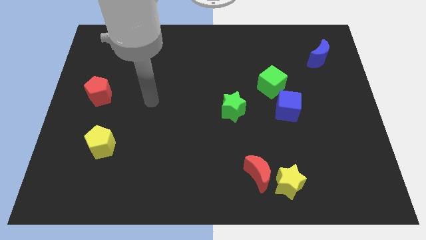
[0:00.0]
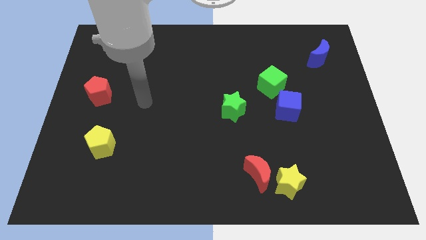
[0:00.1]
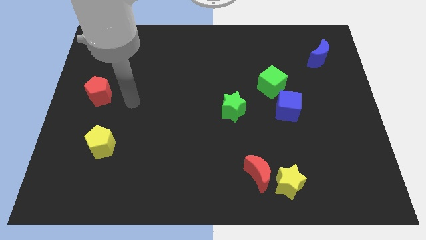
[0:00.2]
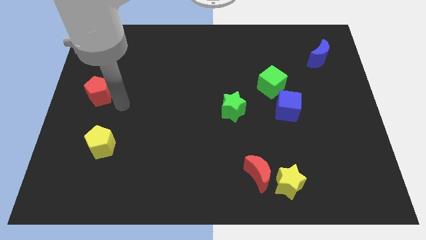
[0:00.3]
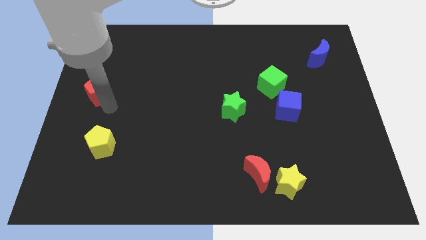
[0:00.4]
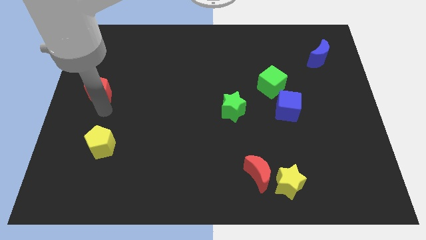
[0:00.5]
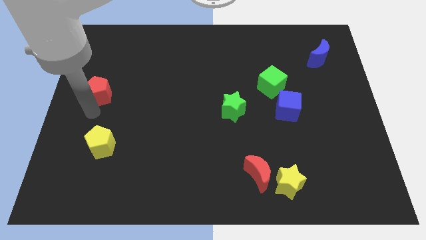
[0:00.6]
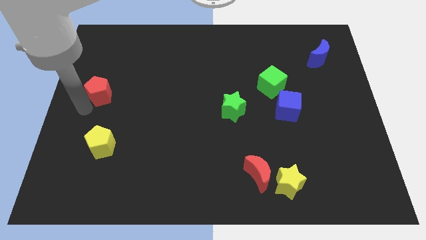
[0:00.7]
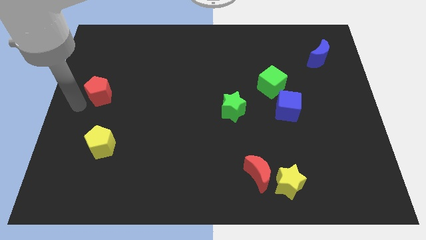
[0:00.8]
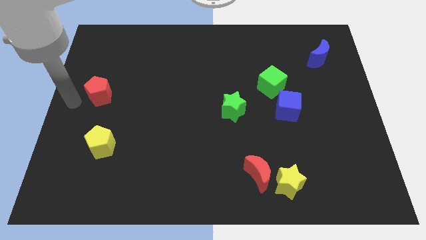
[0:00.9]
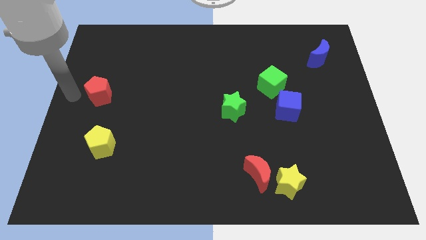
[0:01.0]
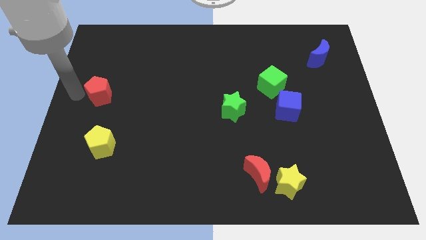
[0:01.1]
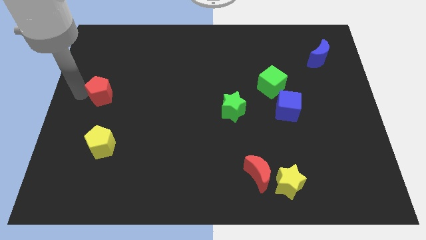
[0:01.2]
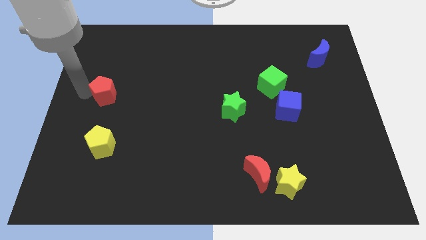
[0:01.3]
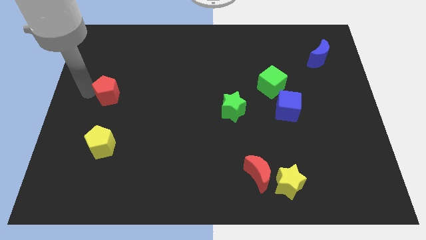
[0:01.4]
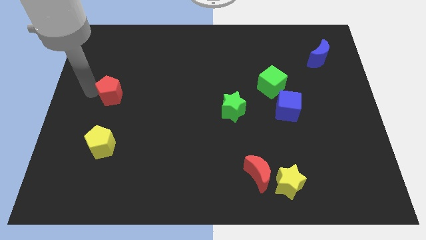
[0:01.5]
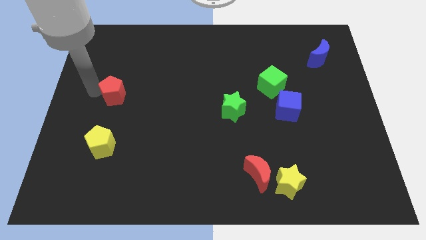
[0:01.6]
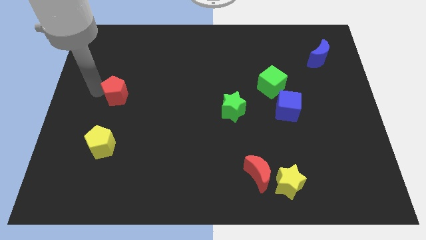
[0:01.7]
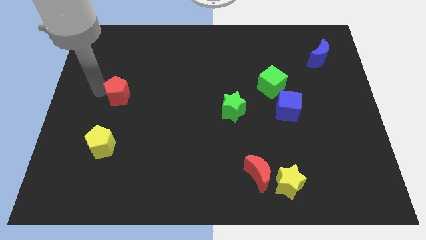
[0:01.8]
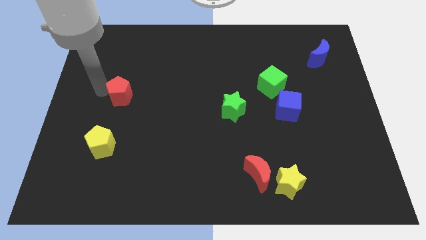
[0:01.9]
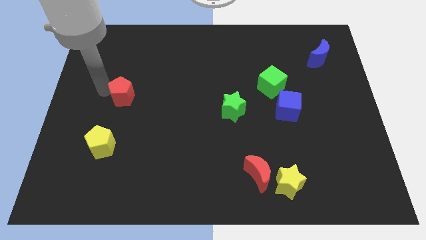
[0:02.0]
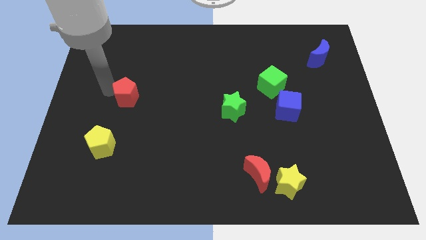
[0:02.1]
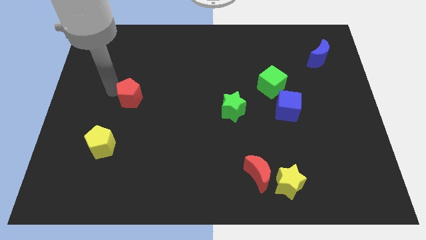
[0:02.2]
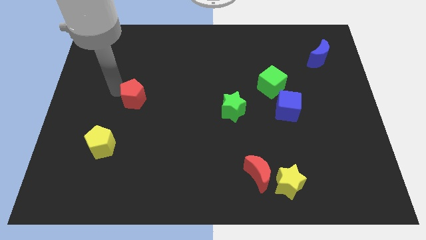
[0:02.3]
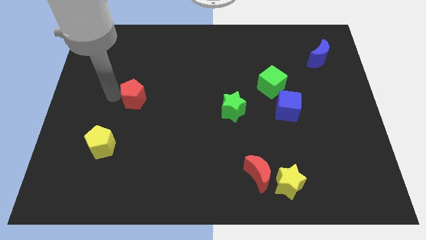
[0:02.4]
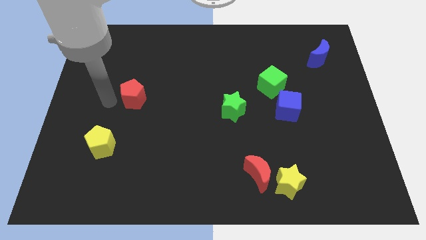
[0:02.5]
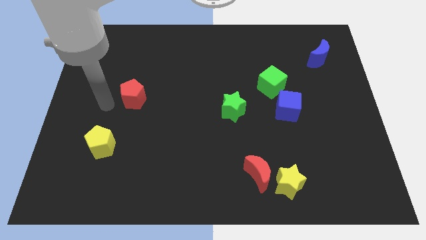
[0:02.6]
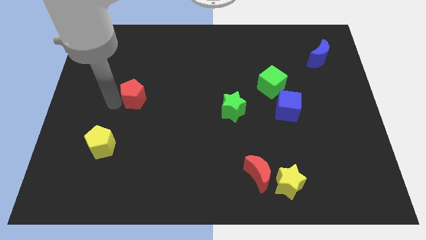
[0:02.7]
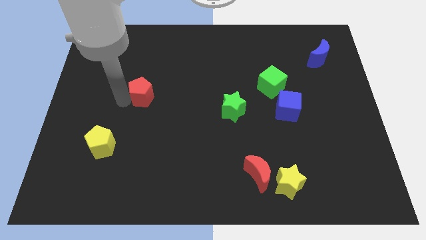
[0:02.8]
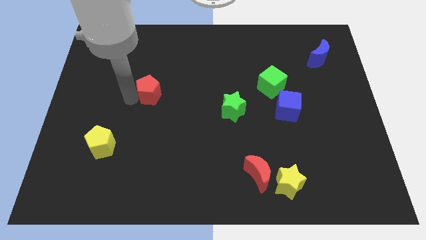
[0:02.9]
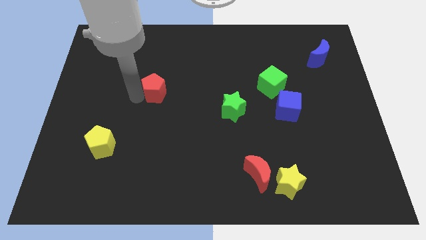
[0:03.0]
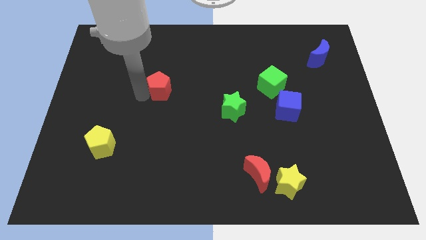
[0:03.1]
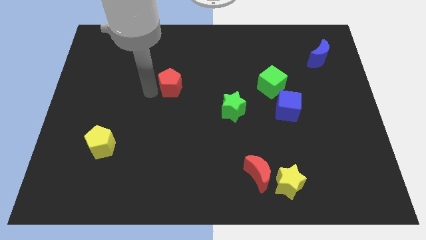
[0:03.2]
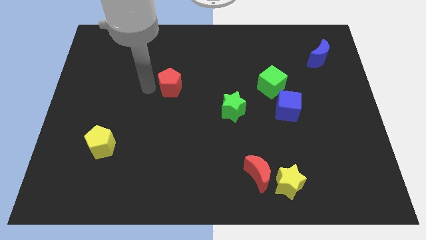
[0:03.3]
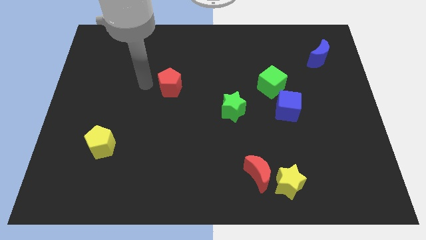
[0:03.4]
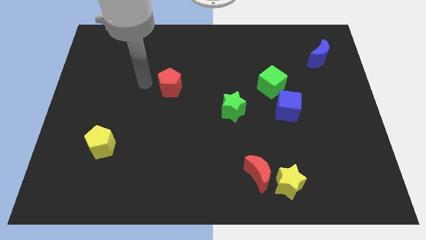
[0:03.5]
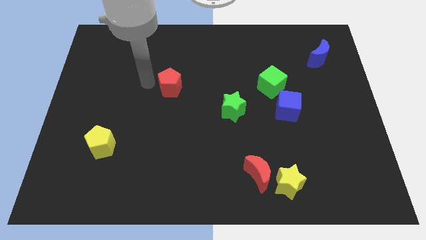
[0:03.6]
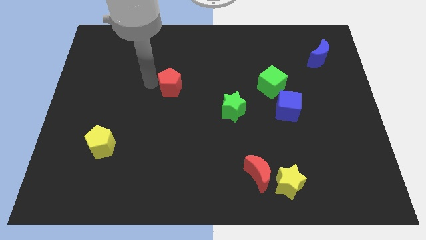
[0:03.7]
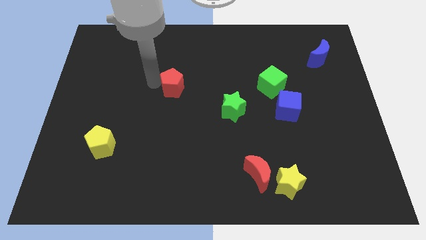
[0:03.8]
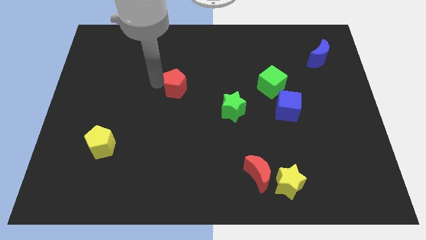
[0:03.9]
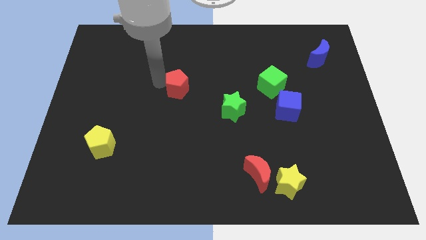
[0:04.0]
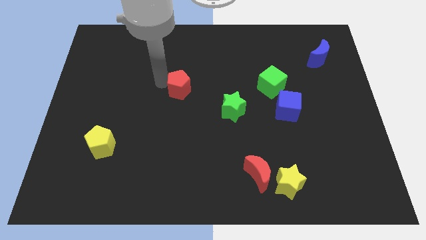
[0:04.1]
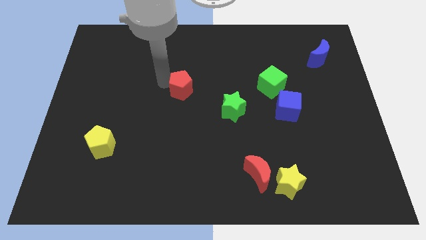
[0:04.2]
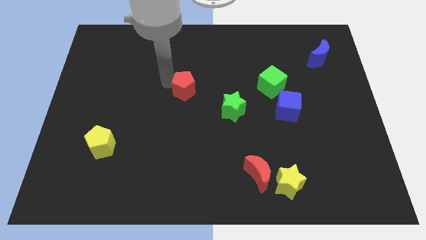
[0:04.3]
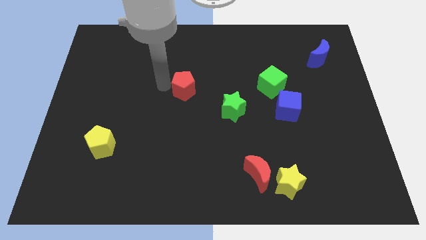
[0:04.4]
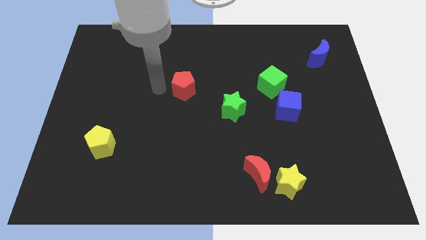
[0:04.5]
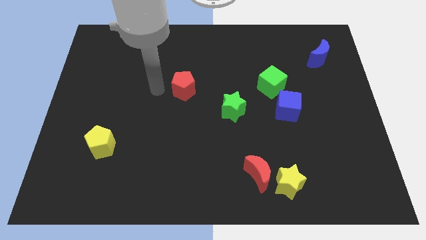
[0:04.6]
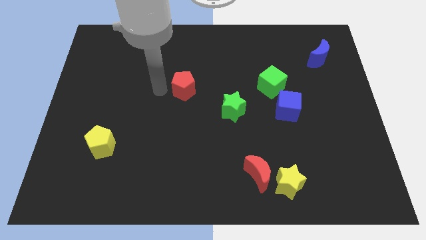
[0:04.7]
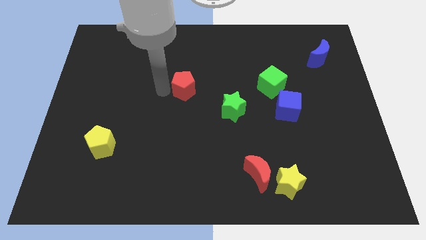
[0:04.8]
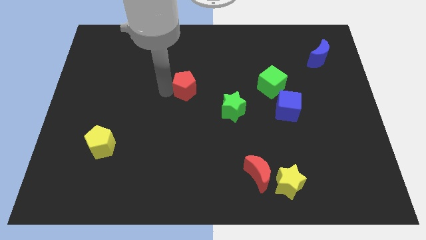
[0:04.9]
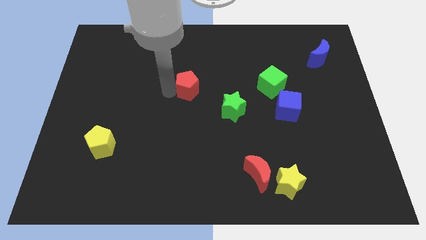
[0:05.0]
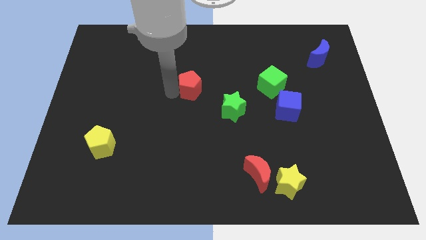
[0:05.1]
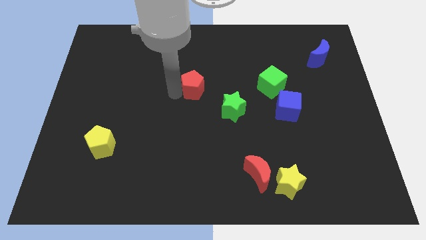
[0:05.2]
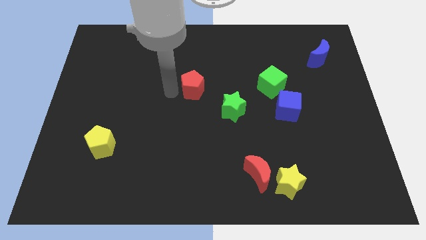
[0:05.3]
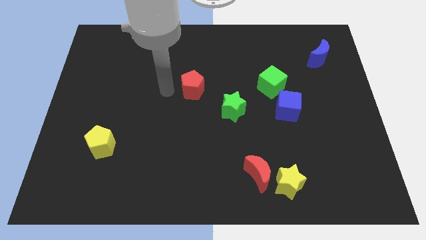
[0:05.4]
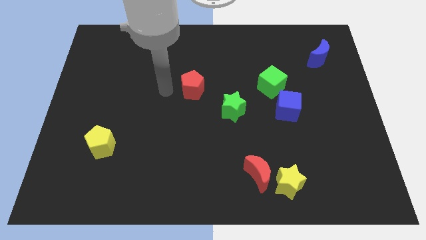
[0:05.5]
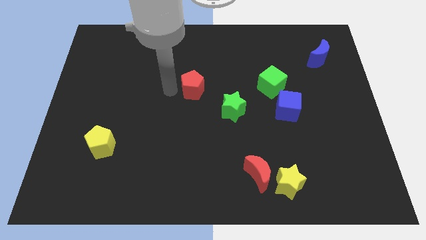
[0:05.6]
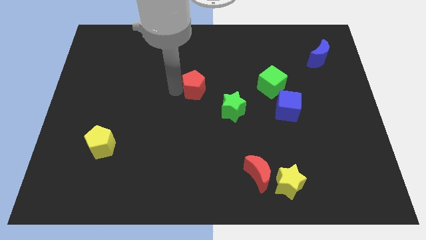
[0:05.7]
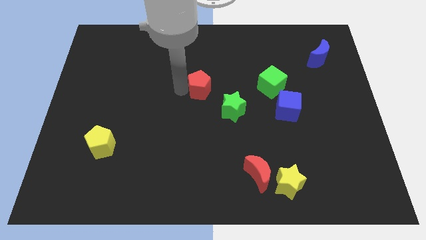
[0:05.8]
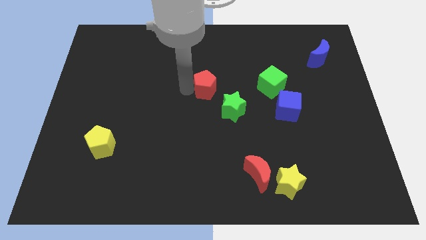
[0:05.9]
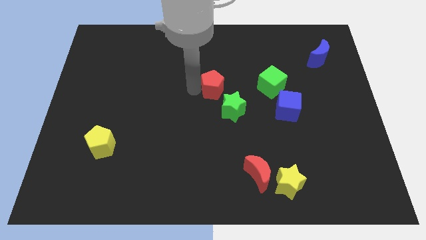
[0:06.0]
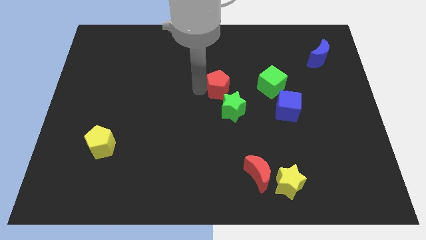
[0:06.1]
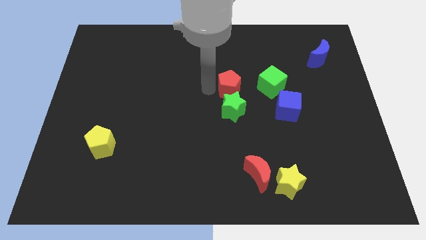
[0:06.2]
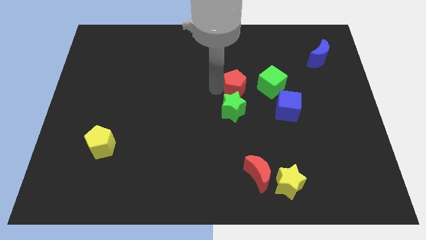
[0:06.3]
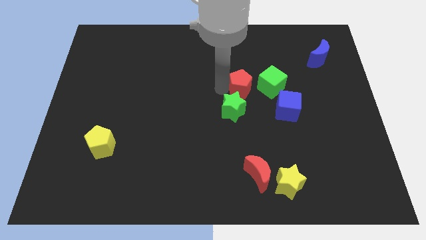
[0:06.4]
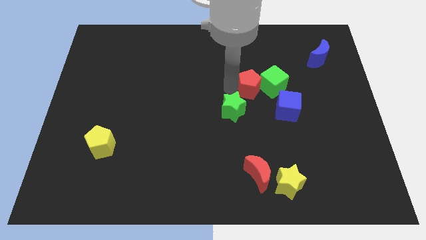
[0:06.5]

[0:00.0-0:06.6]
move the red pentagon towards the green cube

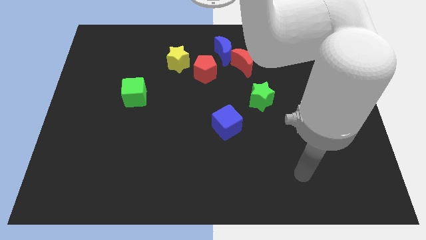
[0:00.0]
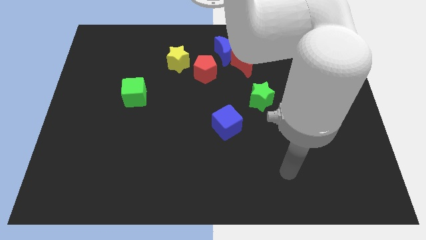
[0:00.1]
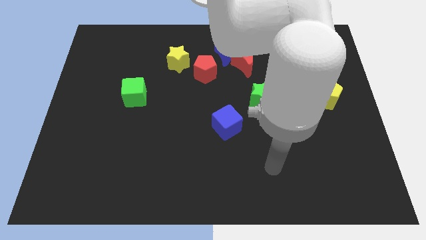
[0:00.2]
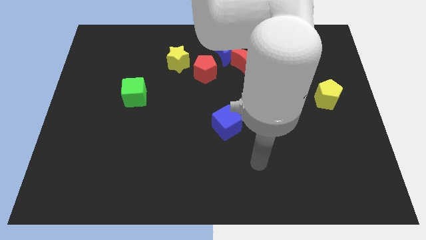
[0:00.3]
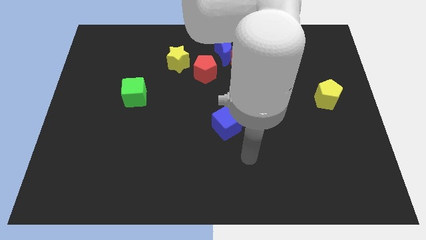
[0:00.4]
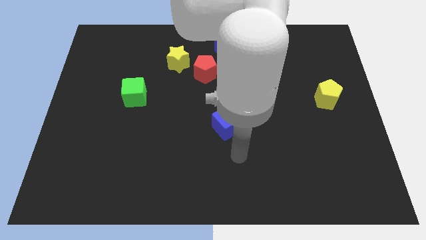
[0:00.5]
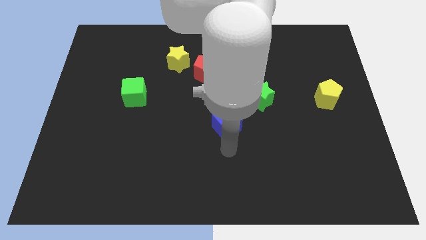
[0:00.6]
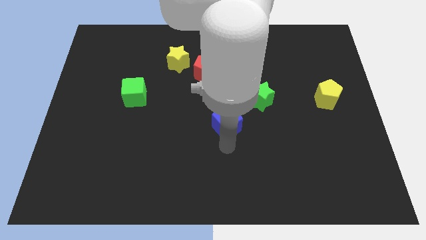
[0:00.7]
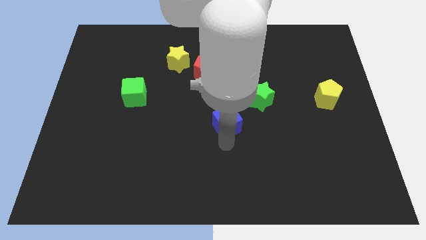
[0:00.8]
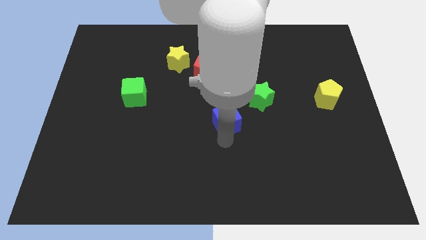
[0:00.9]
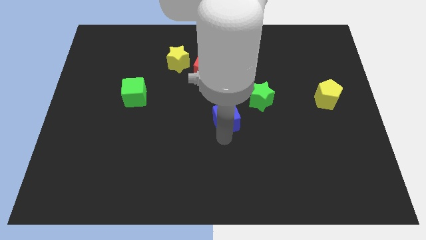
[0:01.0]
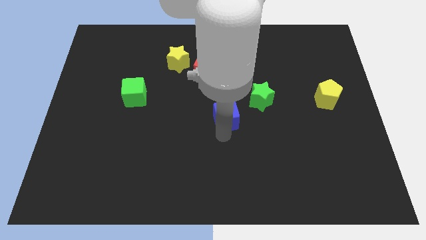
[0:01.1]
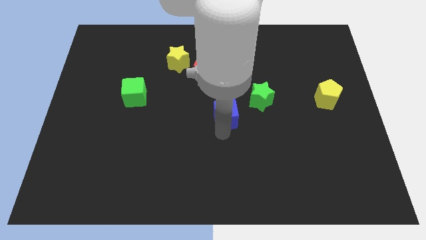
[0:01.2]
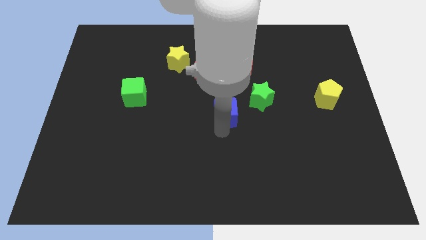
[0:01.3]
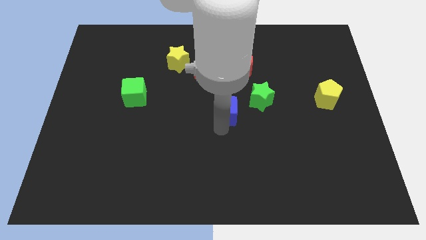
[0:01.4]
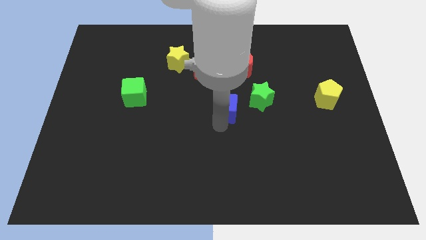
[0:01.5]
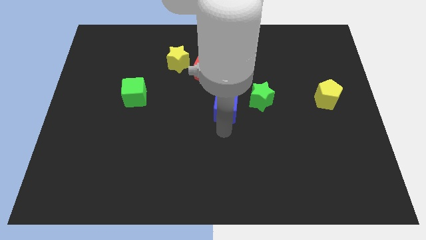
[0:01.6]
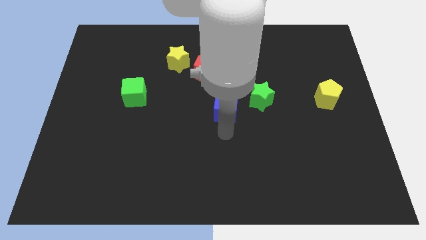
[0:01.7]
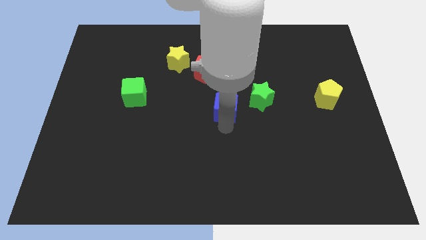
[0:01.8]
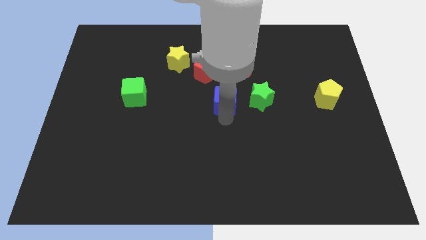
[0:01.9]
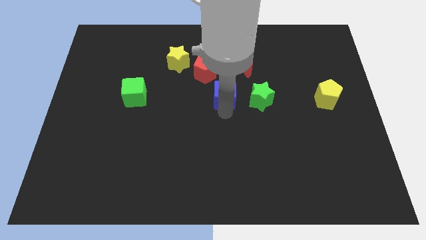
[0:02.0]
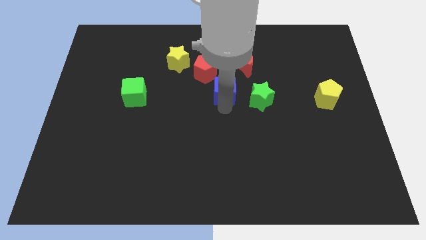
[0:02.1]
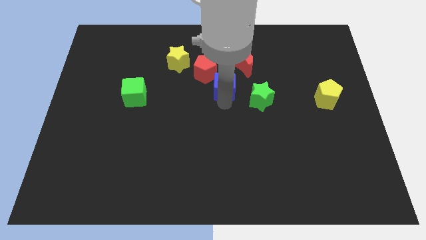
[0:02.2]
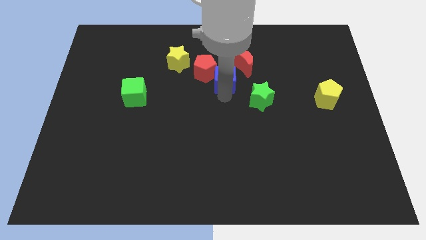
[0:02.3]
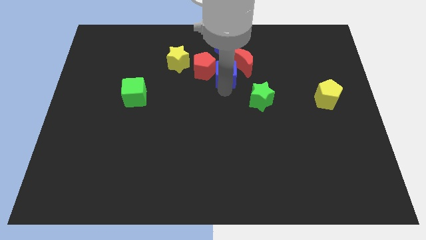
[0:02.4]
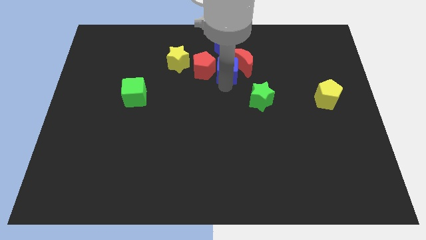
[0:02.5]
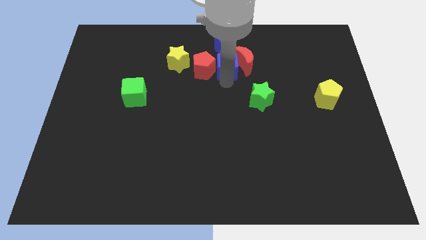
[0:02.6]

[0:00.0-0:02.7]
push the blue cube next to the blue moon
